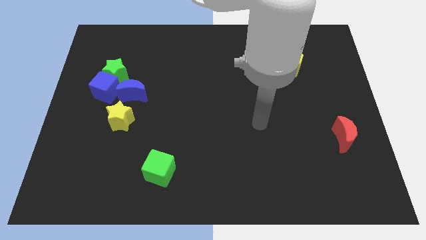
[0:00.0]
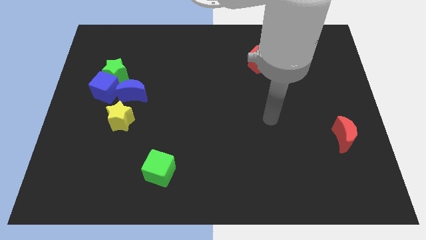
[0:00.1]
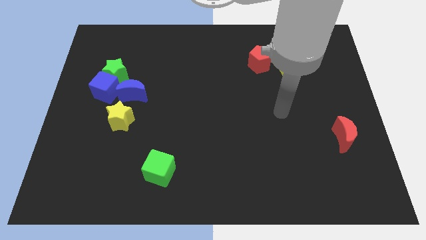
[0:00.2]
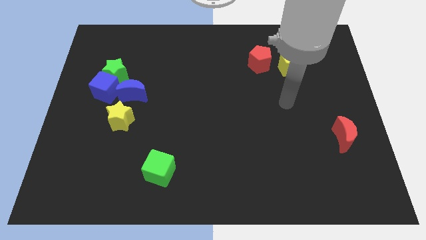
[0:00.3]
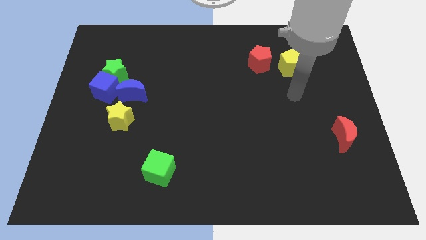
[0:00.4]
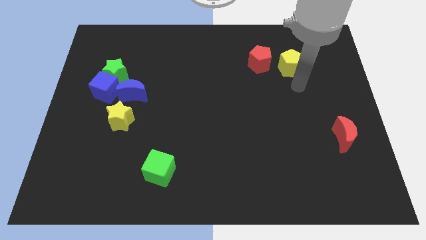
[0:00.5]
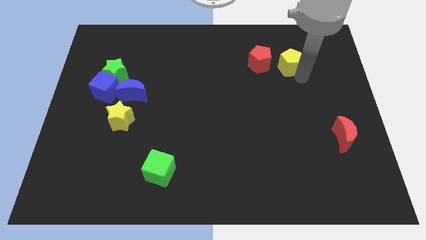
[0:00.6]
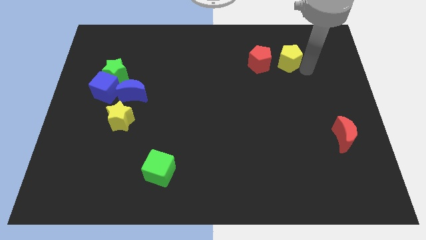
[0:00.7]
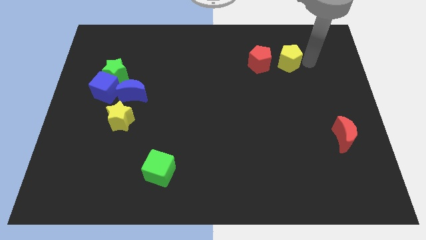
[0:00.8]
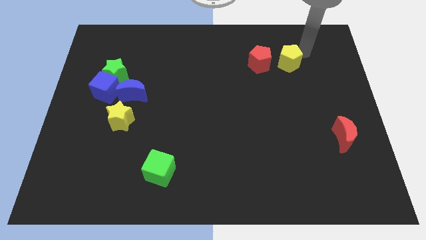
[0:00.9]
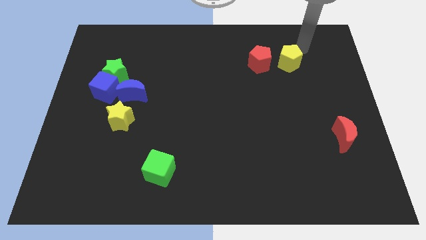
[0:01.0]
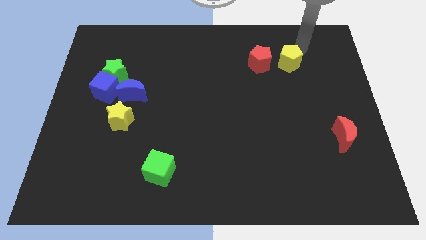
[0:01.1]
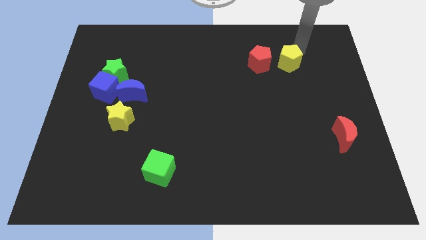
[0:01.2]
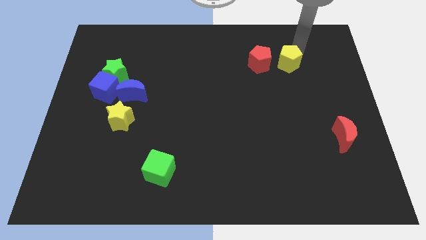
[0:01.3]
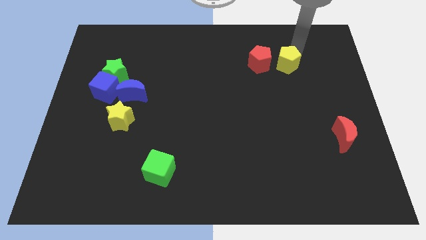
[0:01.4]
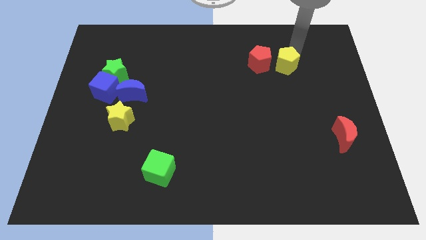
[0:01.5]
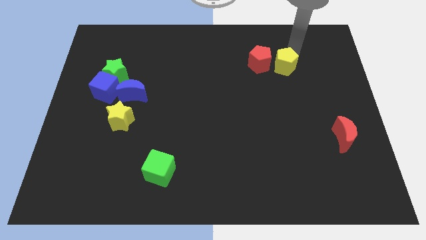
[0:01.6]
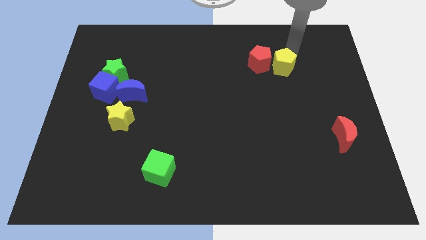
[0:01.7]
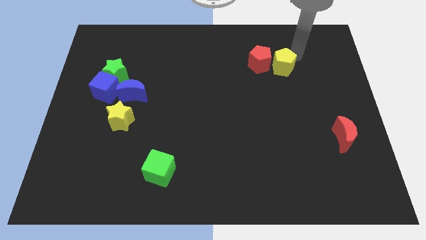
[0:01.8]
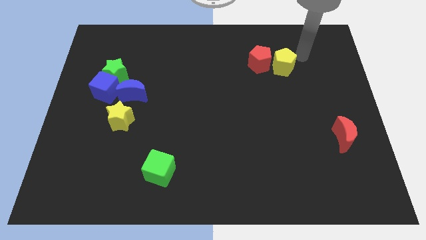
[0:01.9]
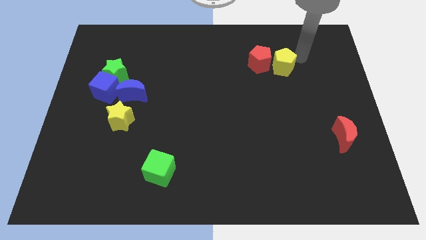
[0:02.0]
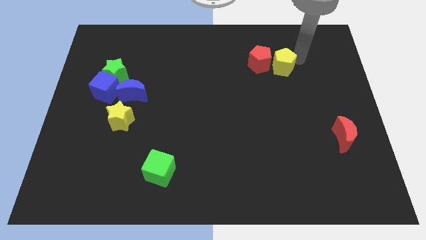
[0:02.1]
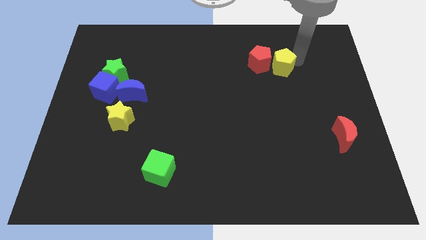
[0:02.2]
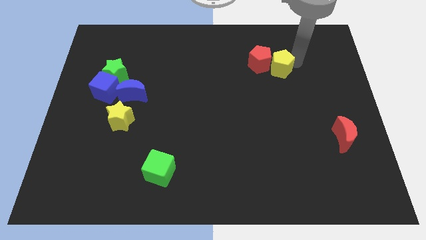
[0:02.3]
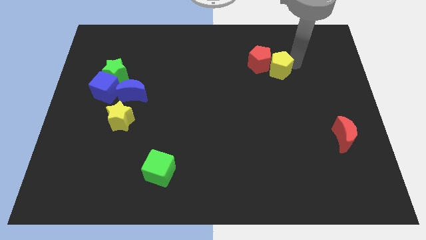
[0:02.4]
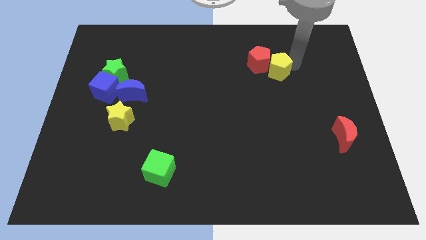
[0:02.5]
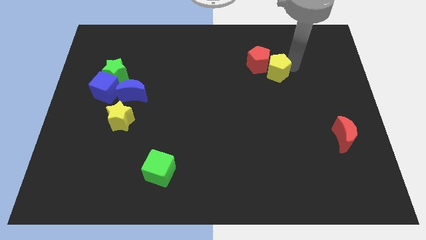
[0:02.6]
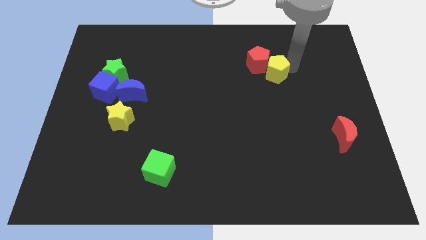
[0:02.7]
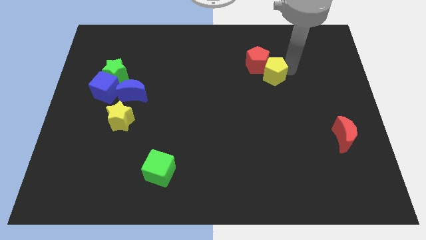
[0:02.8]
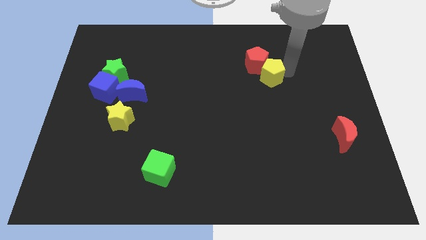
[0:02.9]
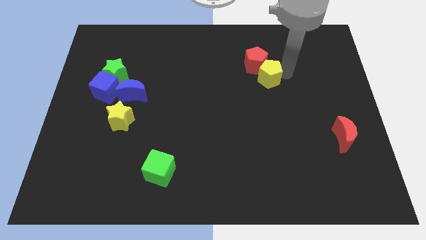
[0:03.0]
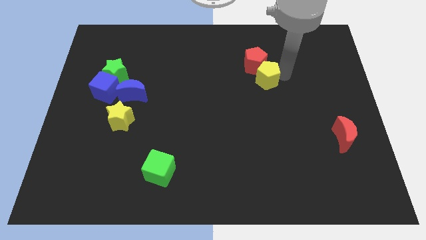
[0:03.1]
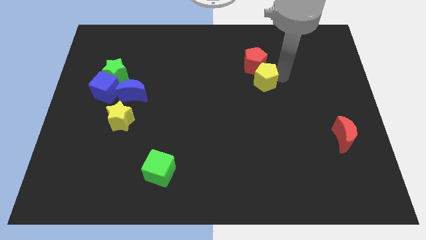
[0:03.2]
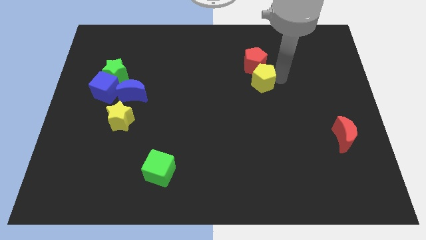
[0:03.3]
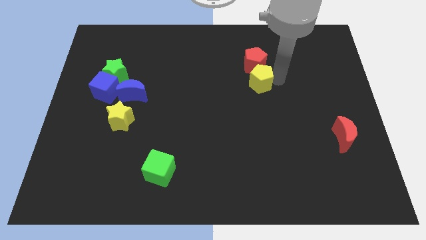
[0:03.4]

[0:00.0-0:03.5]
move the yellow pentagon somewhat left

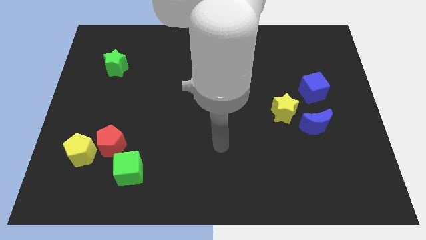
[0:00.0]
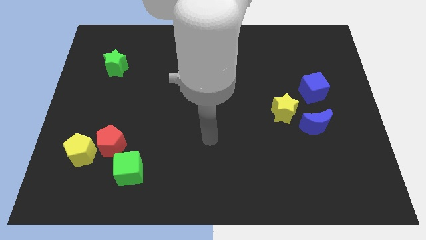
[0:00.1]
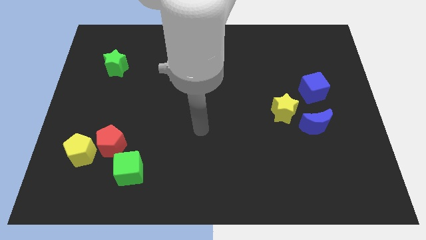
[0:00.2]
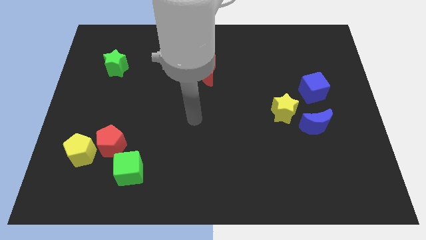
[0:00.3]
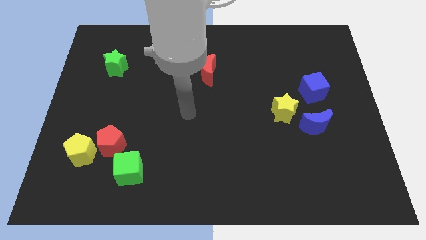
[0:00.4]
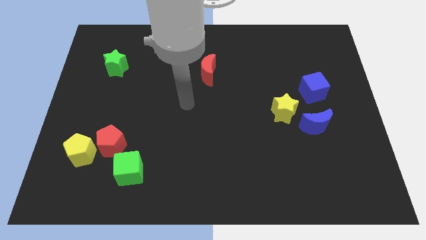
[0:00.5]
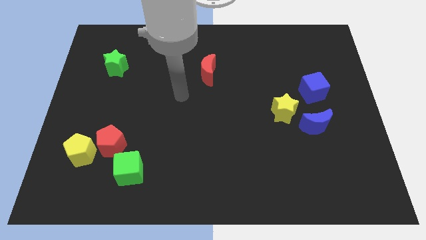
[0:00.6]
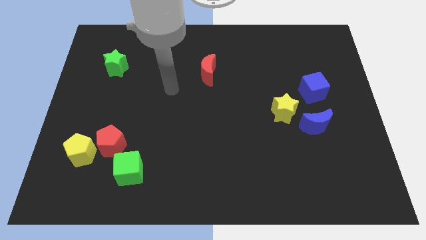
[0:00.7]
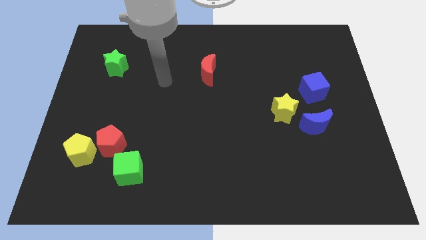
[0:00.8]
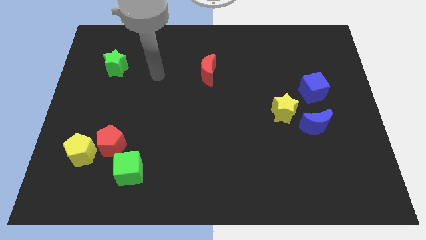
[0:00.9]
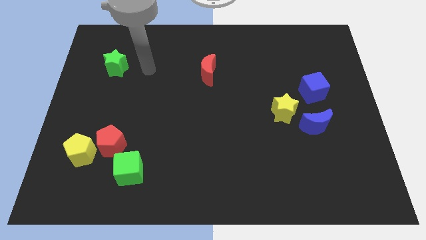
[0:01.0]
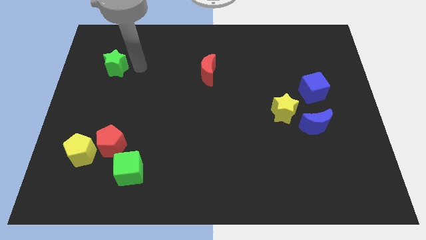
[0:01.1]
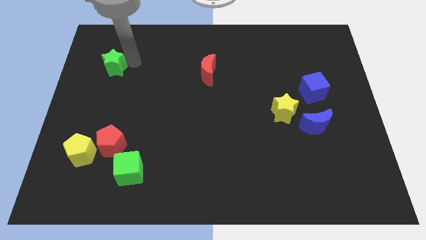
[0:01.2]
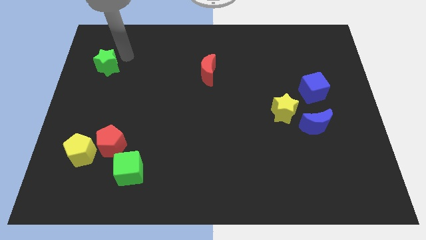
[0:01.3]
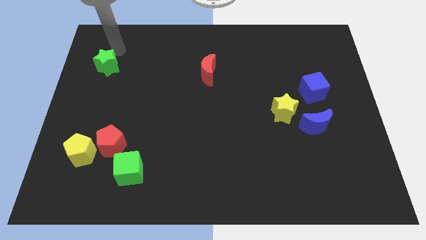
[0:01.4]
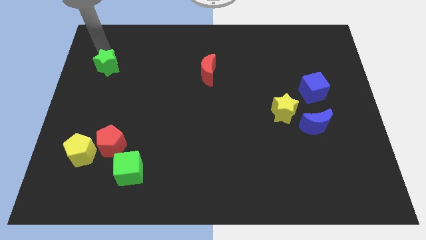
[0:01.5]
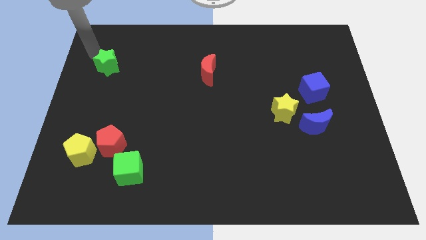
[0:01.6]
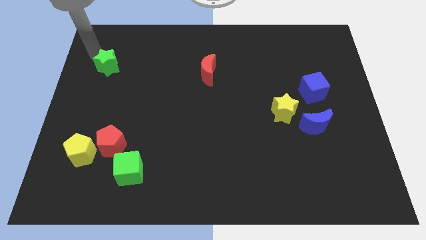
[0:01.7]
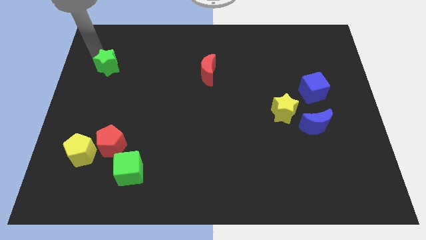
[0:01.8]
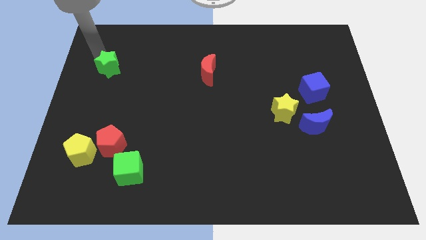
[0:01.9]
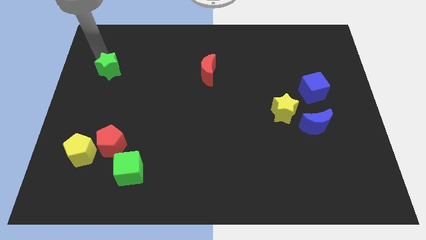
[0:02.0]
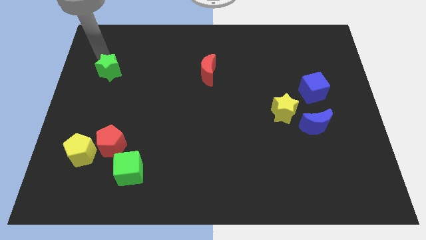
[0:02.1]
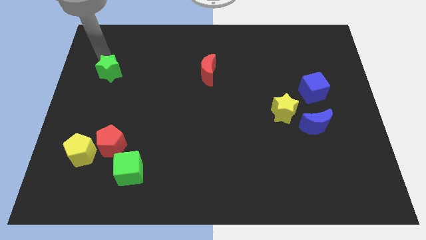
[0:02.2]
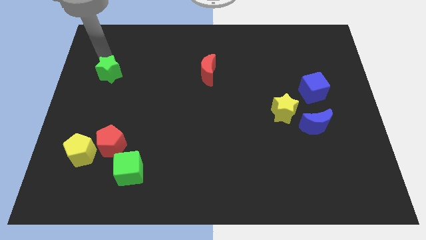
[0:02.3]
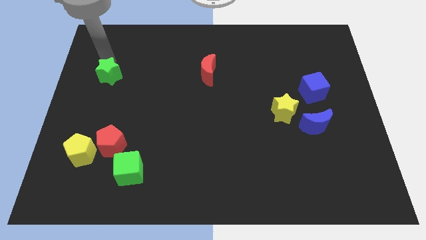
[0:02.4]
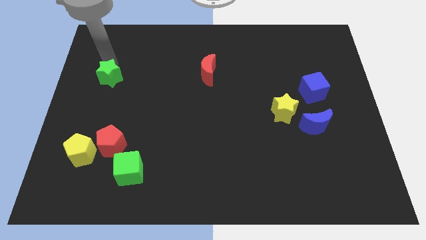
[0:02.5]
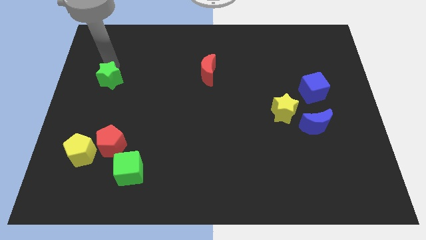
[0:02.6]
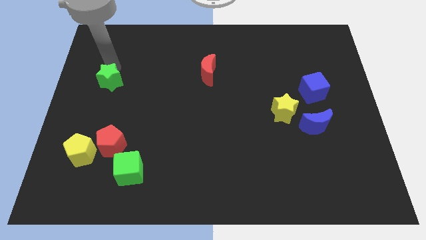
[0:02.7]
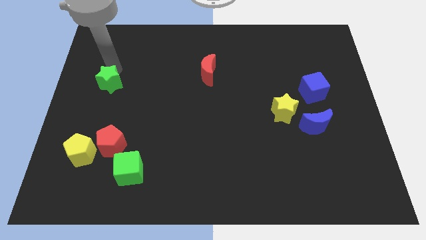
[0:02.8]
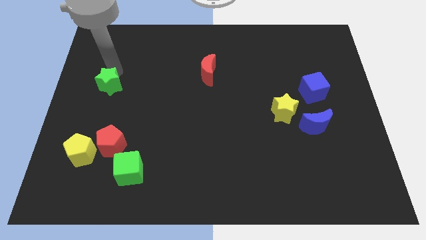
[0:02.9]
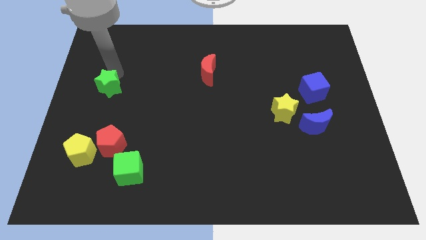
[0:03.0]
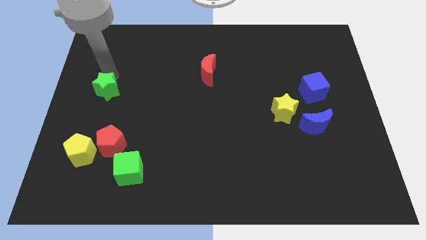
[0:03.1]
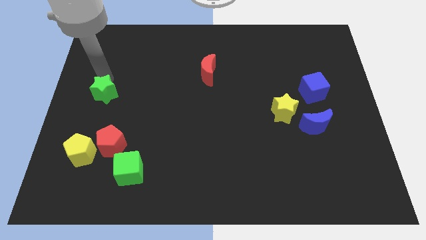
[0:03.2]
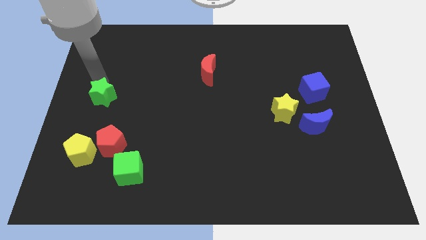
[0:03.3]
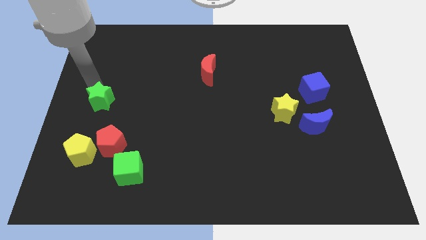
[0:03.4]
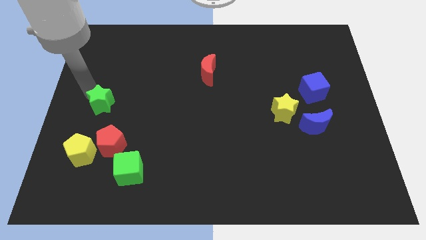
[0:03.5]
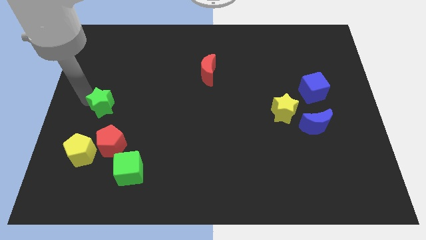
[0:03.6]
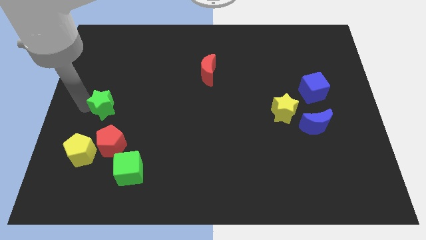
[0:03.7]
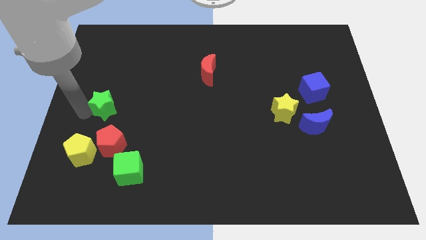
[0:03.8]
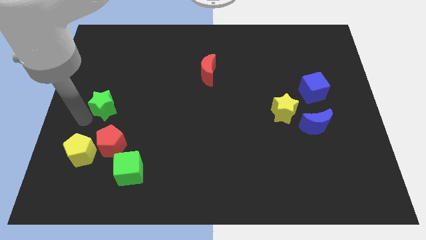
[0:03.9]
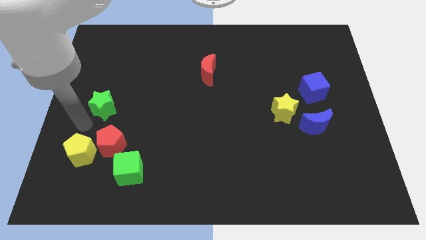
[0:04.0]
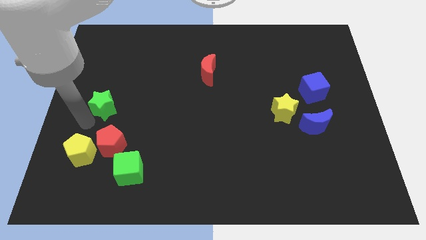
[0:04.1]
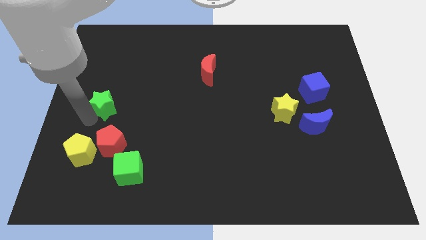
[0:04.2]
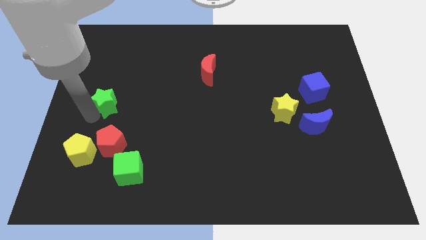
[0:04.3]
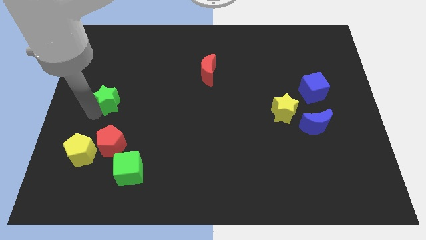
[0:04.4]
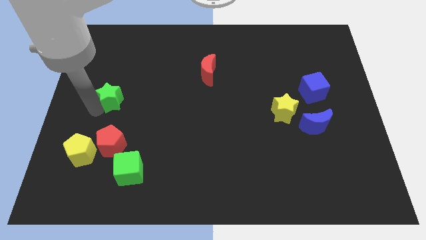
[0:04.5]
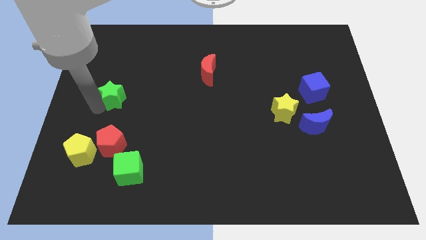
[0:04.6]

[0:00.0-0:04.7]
slightly slide the green star downwards and then to the right
